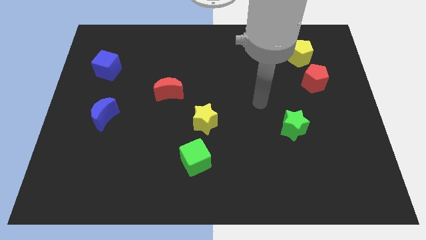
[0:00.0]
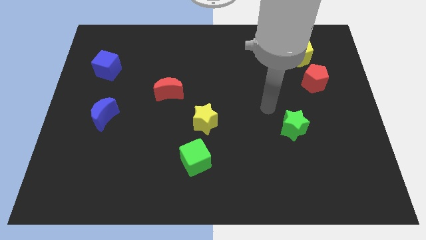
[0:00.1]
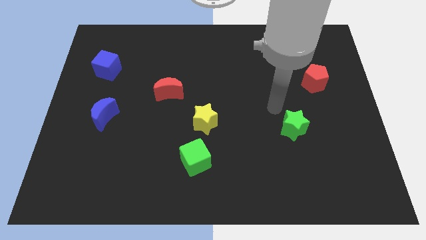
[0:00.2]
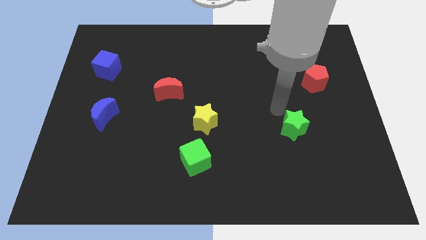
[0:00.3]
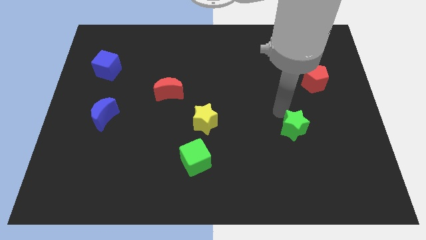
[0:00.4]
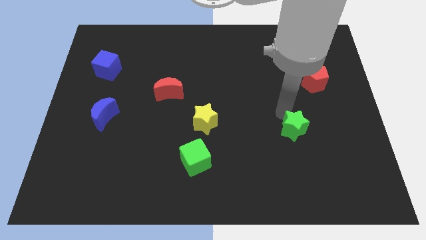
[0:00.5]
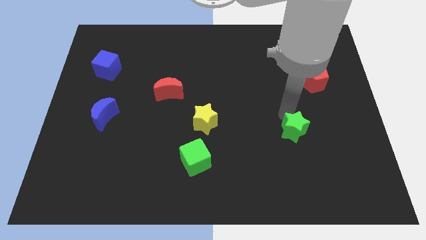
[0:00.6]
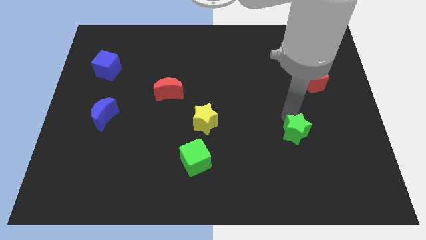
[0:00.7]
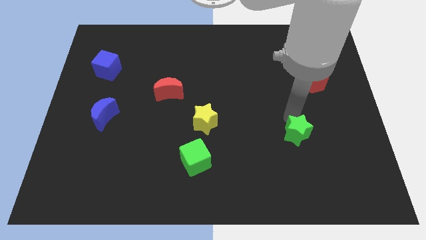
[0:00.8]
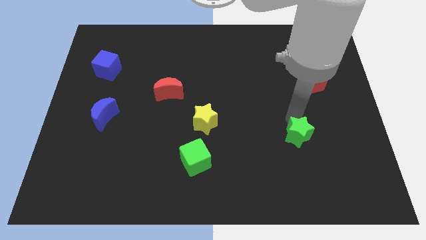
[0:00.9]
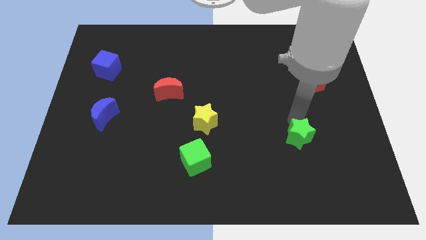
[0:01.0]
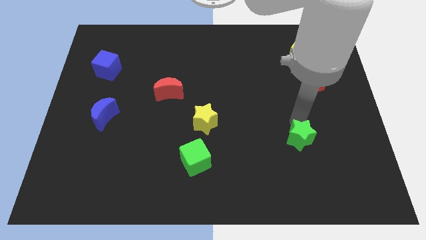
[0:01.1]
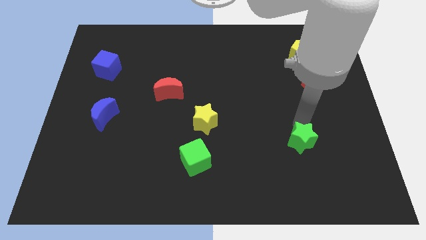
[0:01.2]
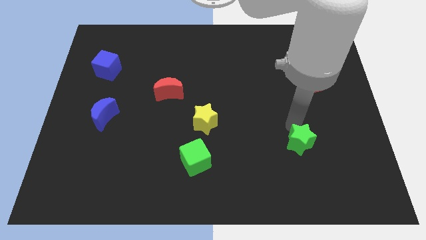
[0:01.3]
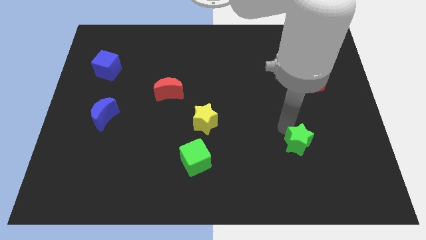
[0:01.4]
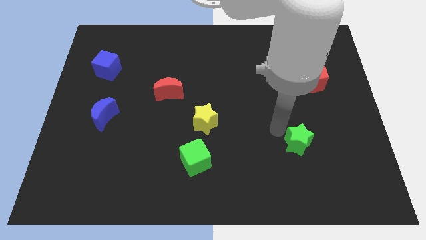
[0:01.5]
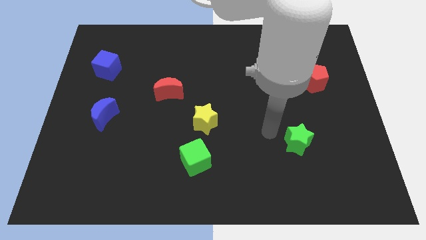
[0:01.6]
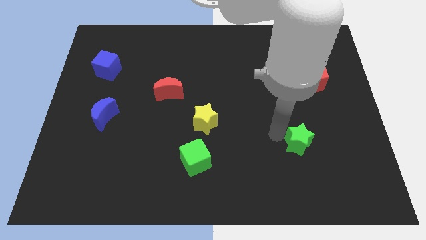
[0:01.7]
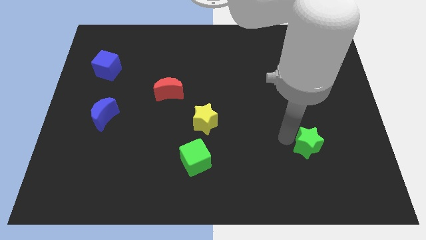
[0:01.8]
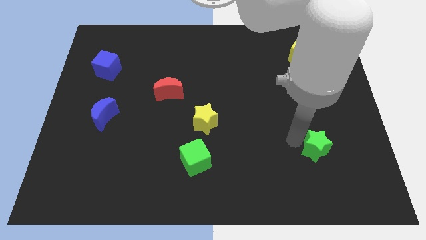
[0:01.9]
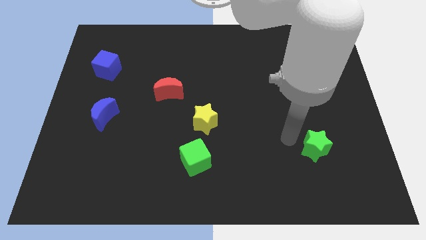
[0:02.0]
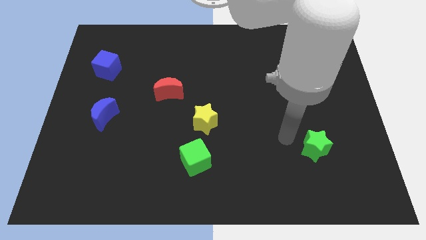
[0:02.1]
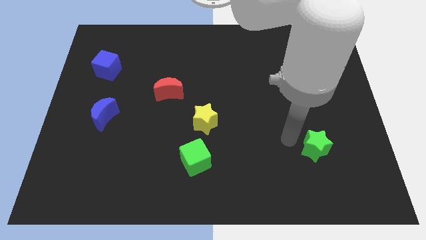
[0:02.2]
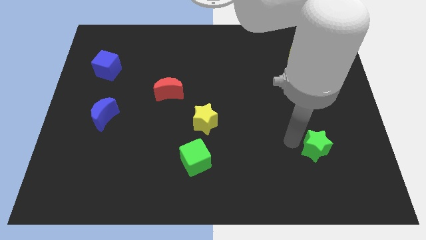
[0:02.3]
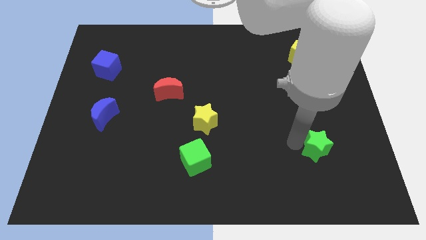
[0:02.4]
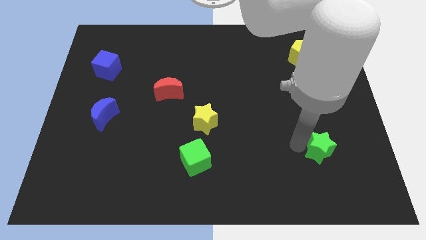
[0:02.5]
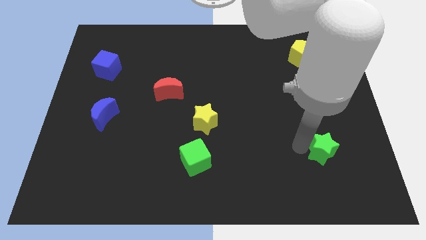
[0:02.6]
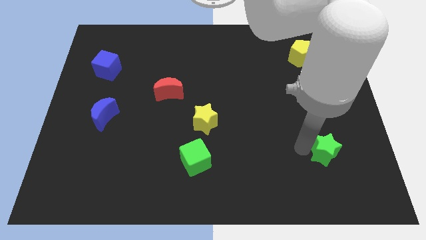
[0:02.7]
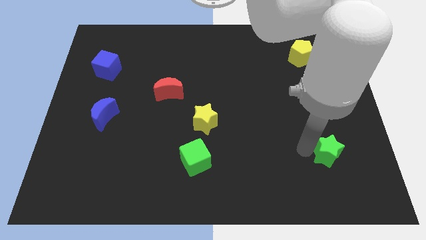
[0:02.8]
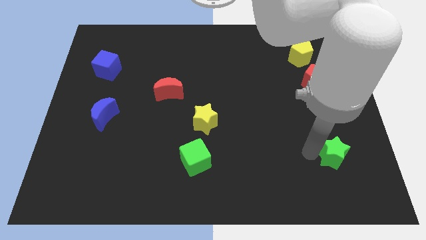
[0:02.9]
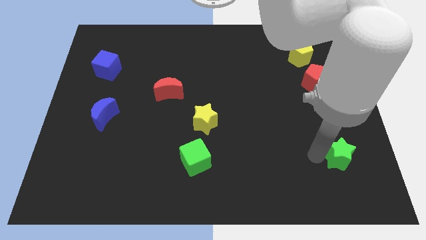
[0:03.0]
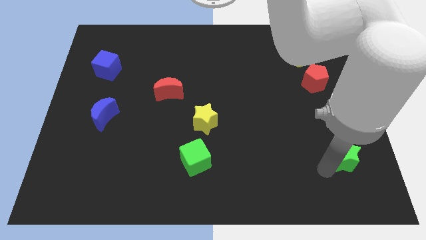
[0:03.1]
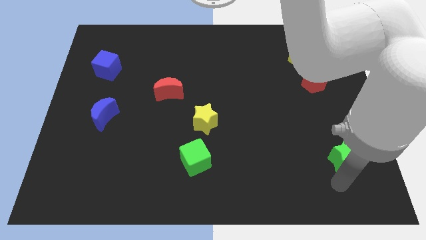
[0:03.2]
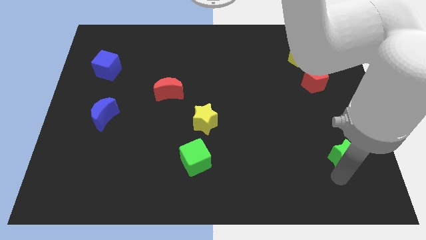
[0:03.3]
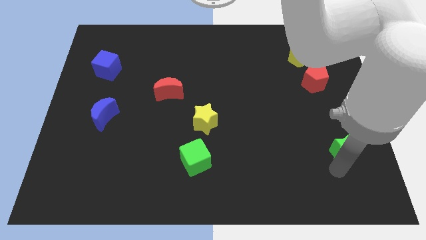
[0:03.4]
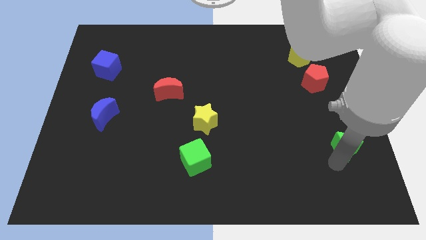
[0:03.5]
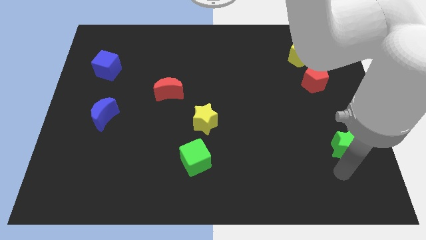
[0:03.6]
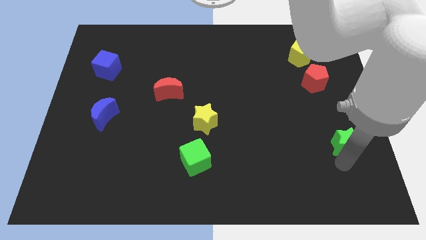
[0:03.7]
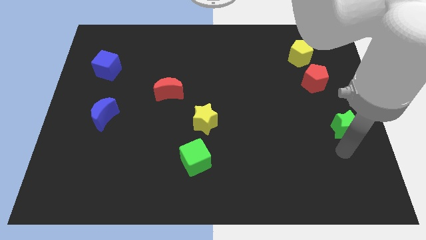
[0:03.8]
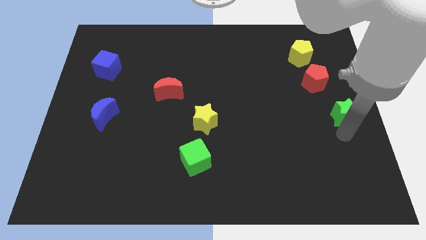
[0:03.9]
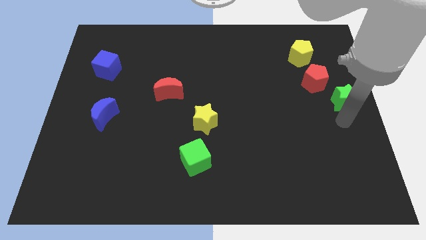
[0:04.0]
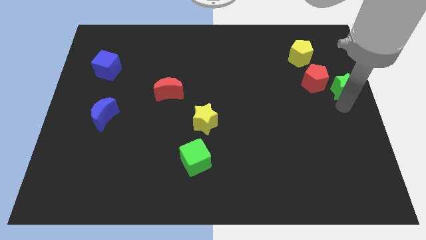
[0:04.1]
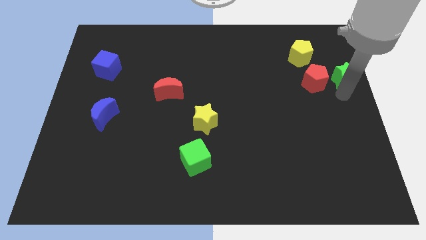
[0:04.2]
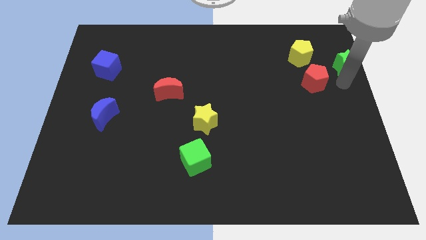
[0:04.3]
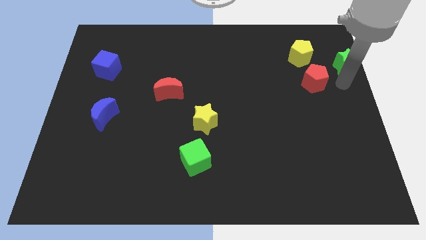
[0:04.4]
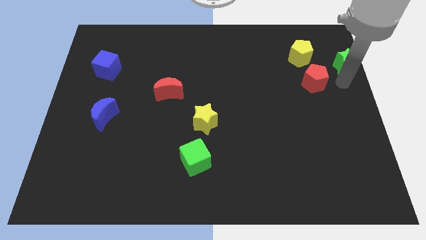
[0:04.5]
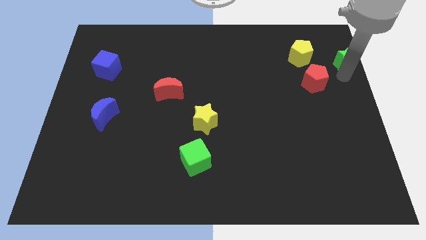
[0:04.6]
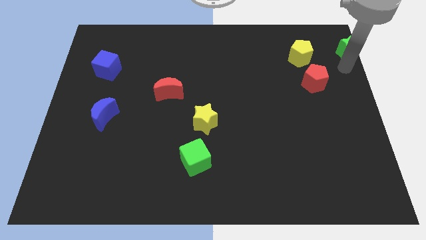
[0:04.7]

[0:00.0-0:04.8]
push the green star to the top right corner

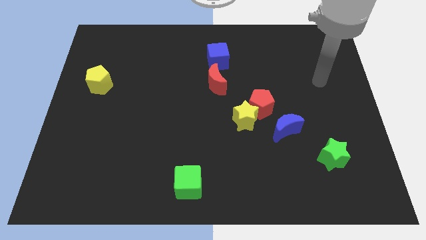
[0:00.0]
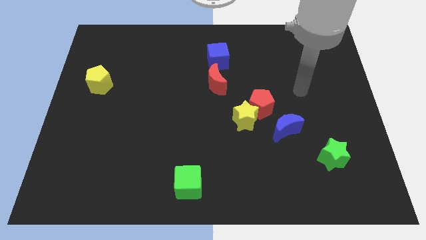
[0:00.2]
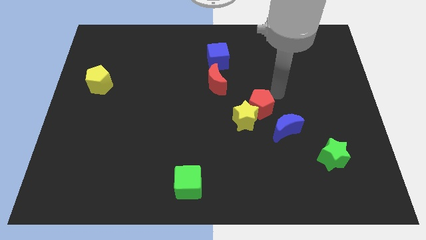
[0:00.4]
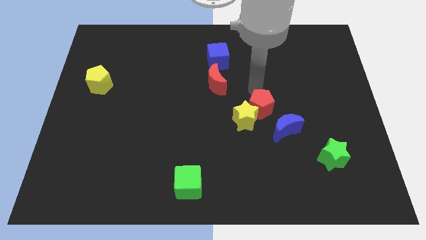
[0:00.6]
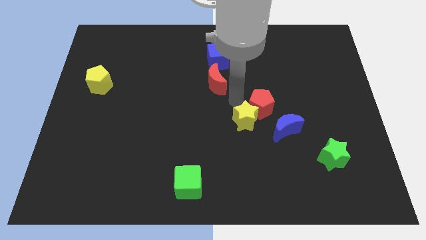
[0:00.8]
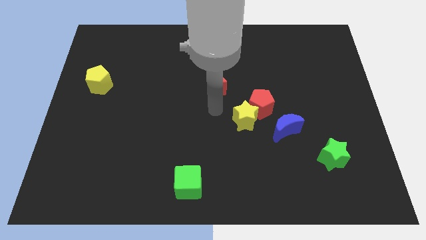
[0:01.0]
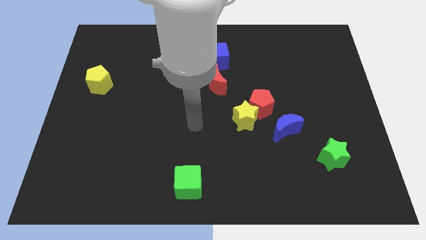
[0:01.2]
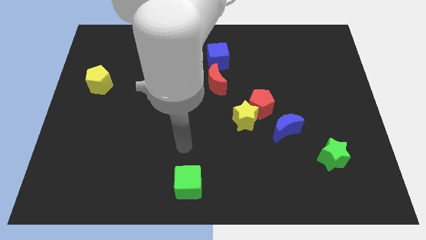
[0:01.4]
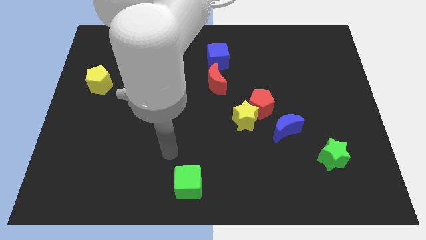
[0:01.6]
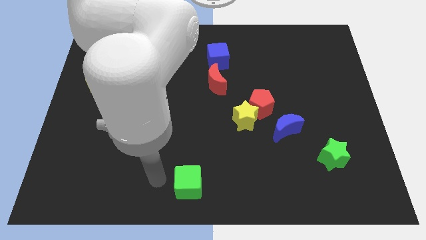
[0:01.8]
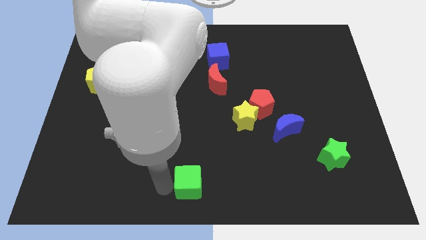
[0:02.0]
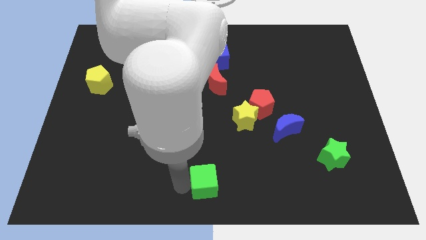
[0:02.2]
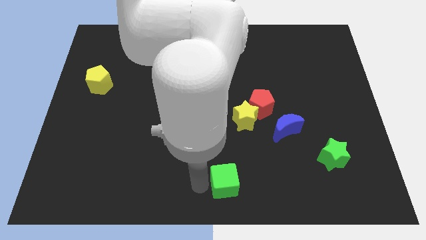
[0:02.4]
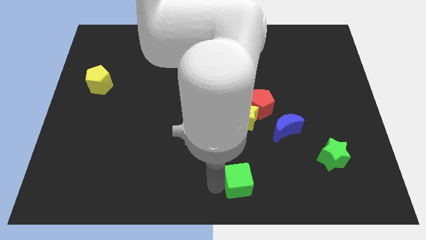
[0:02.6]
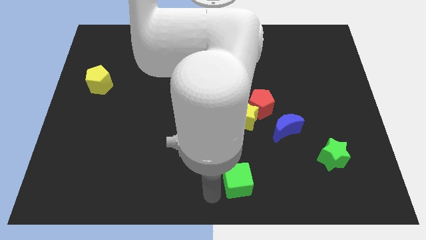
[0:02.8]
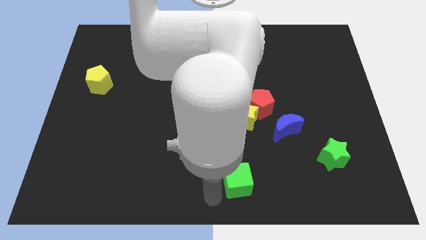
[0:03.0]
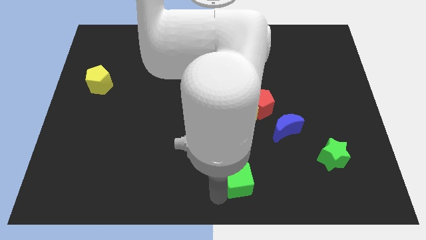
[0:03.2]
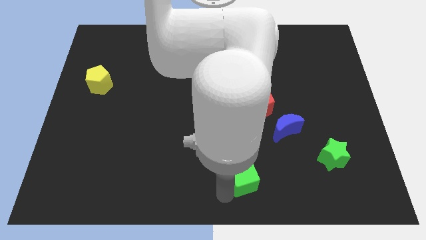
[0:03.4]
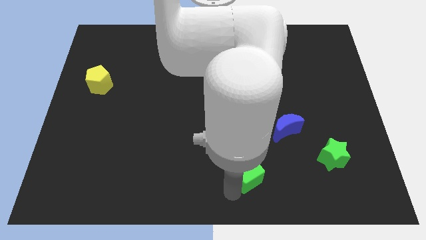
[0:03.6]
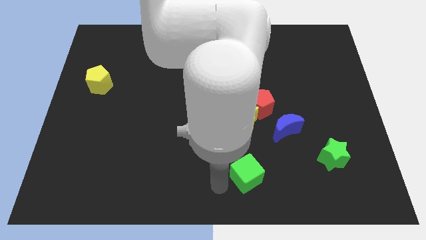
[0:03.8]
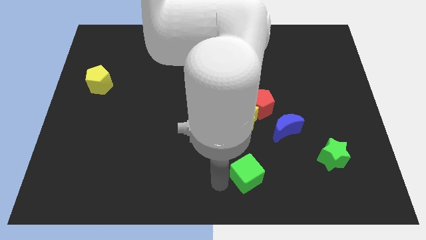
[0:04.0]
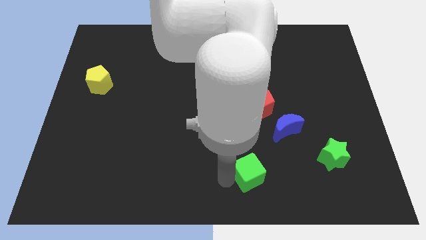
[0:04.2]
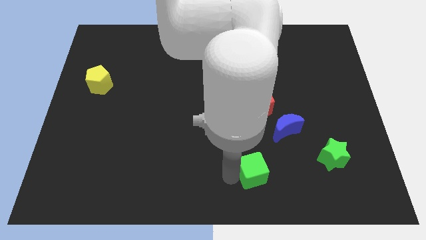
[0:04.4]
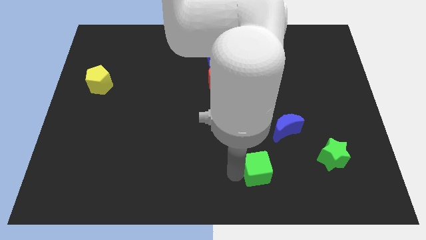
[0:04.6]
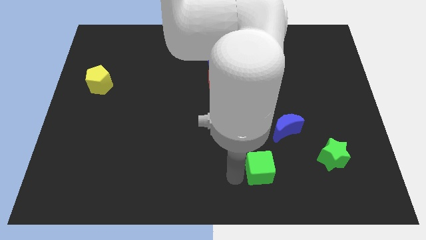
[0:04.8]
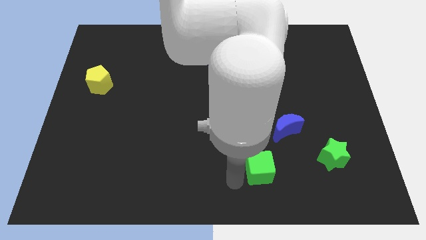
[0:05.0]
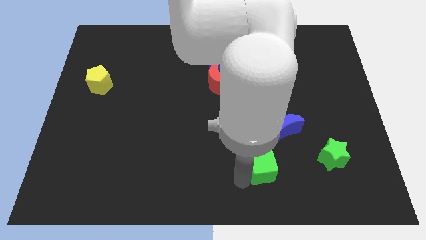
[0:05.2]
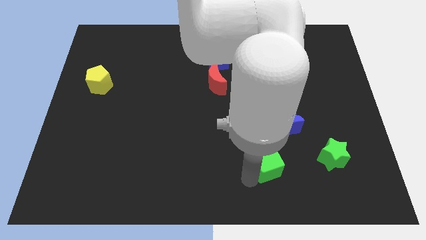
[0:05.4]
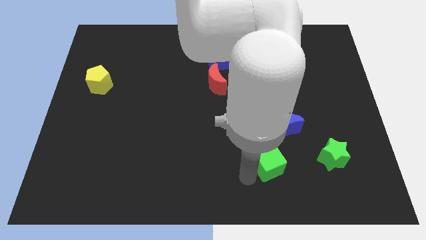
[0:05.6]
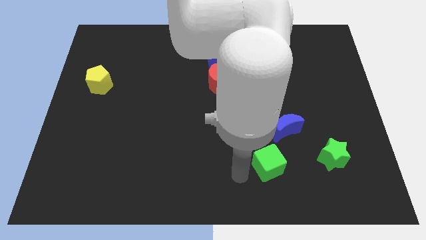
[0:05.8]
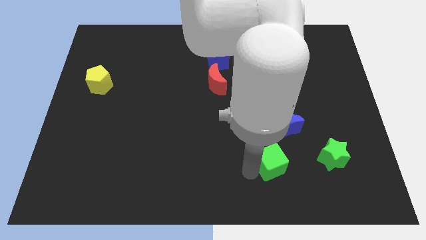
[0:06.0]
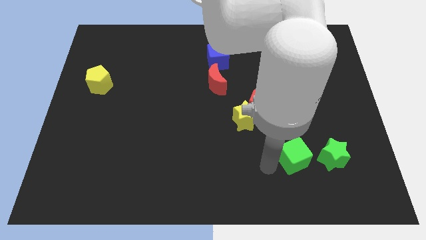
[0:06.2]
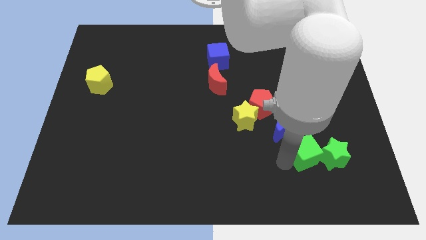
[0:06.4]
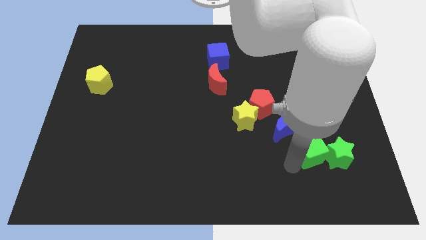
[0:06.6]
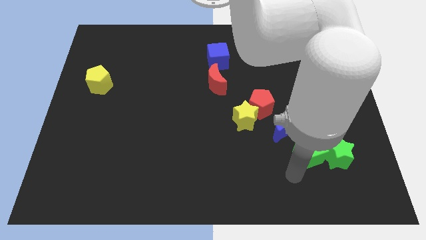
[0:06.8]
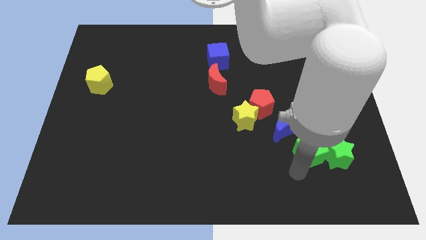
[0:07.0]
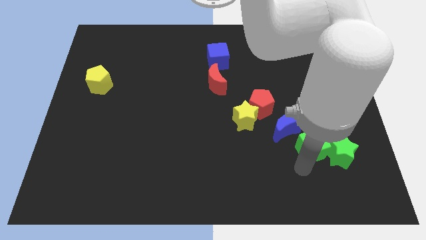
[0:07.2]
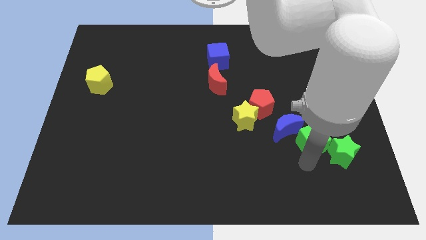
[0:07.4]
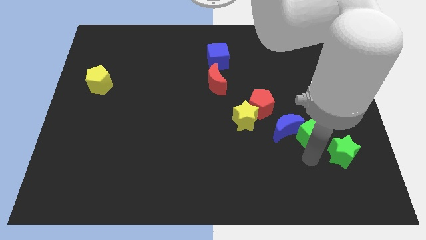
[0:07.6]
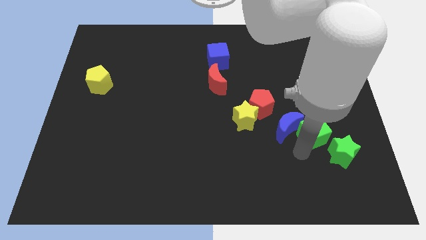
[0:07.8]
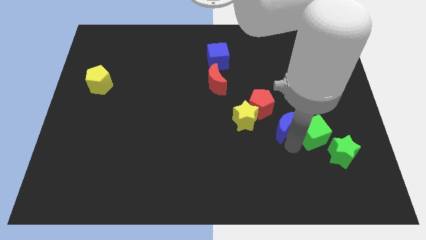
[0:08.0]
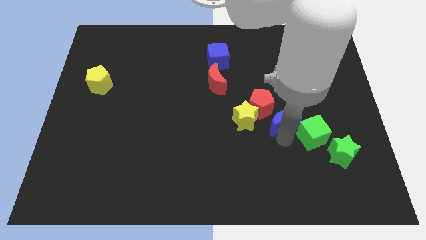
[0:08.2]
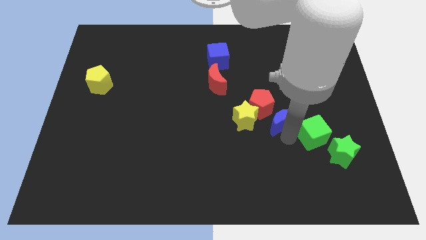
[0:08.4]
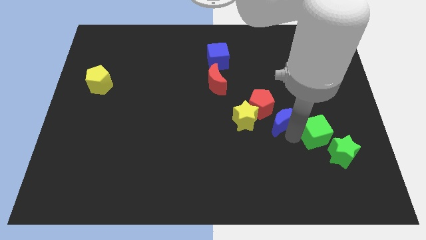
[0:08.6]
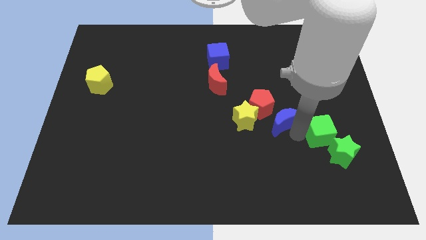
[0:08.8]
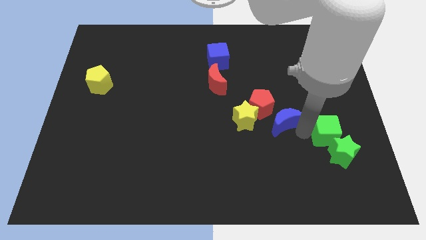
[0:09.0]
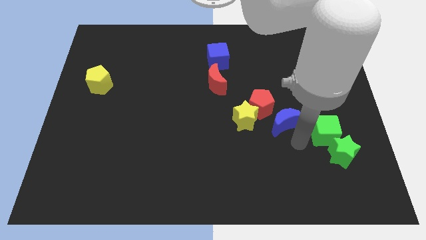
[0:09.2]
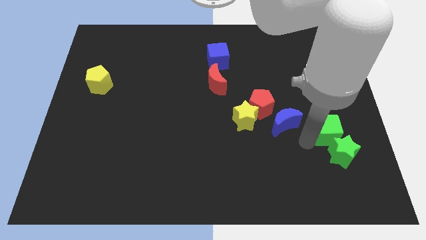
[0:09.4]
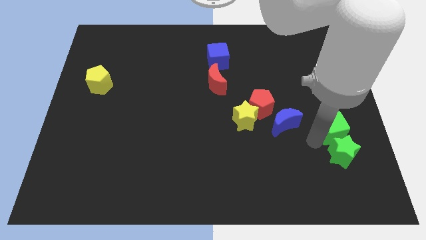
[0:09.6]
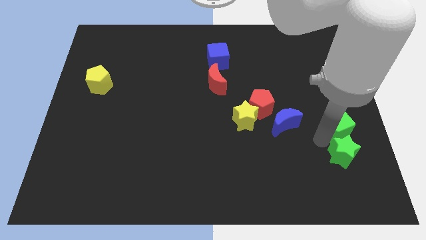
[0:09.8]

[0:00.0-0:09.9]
put the green cube to the right side of the board
